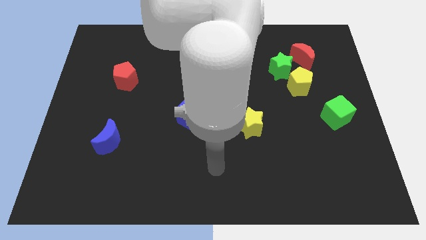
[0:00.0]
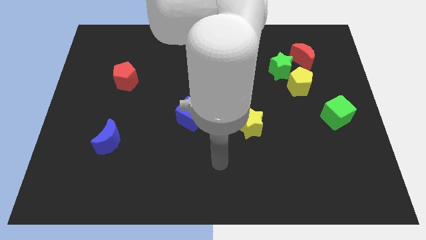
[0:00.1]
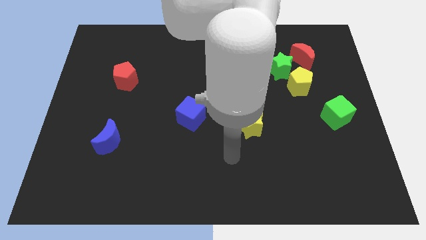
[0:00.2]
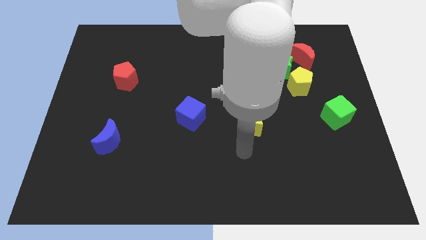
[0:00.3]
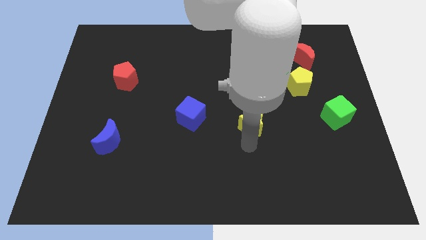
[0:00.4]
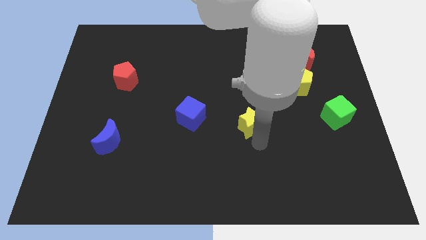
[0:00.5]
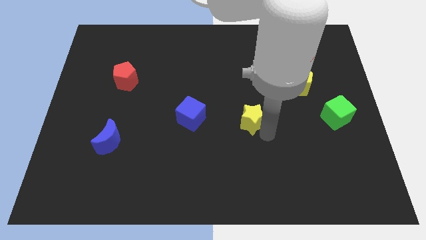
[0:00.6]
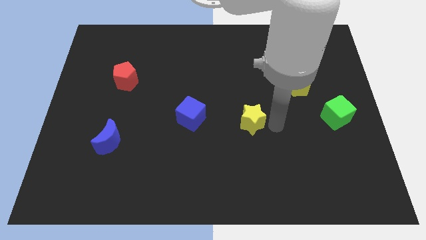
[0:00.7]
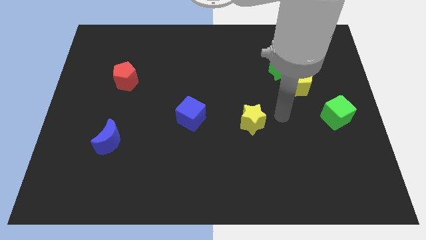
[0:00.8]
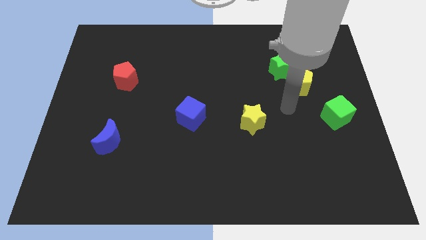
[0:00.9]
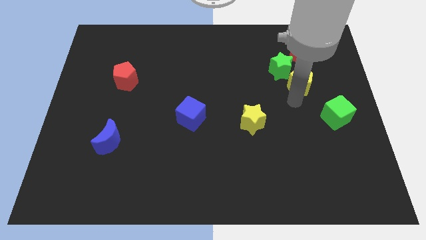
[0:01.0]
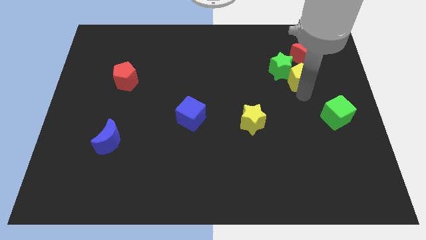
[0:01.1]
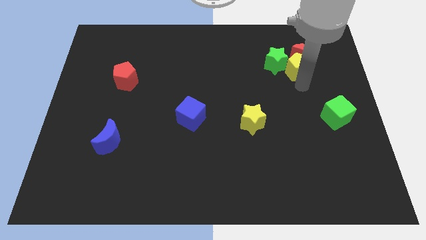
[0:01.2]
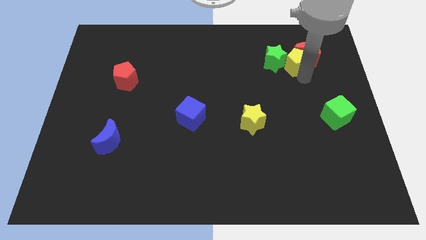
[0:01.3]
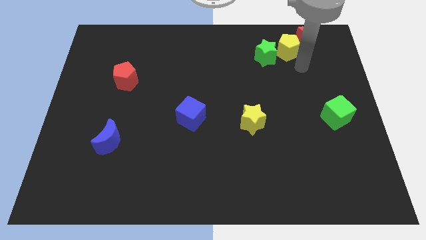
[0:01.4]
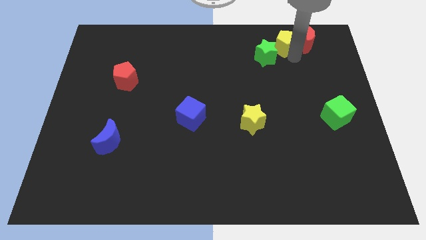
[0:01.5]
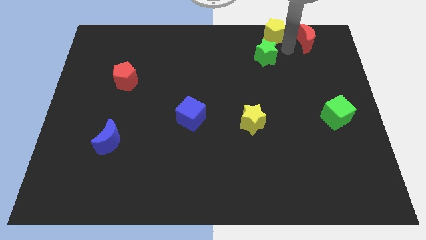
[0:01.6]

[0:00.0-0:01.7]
move the green star away from the yellow pentagon and red moon

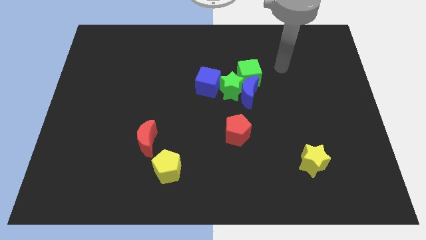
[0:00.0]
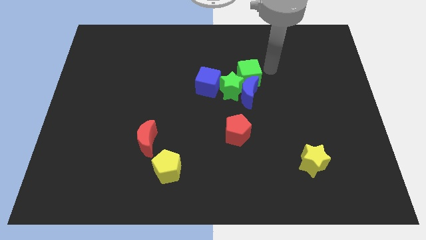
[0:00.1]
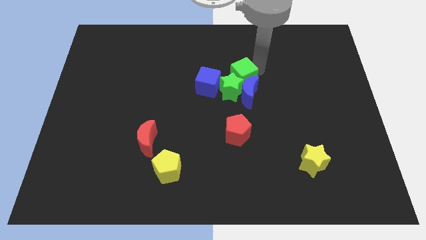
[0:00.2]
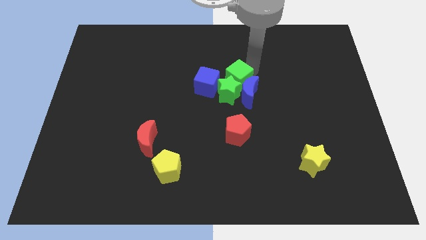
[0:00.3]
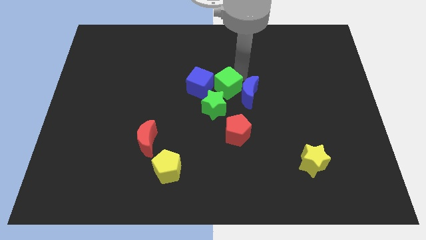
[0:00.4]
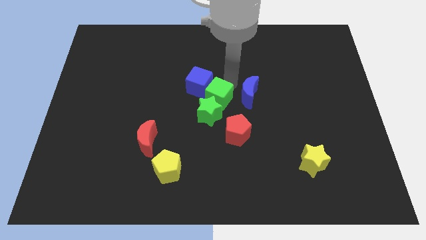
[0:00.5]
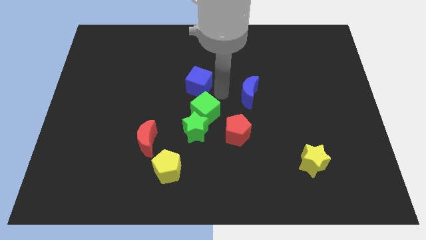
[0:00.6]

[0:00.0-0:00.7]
move the green star away from the group

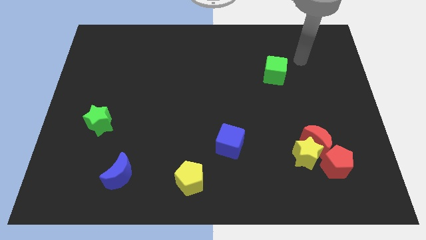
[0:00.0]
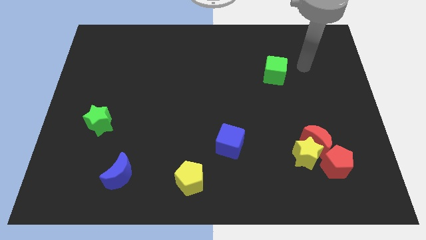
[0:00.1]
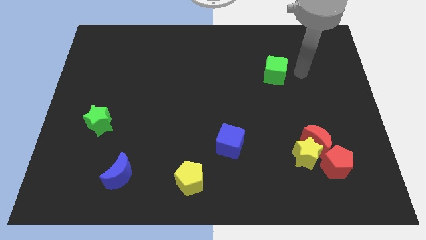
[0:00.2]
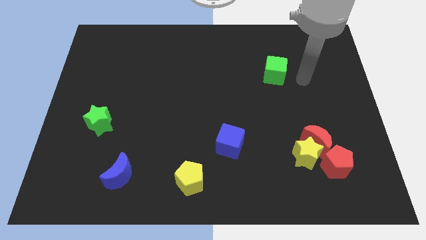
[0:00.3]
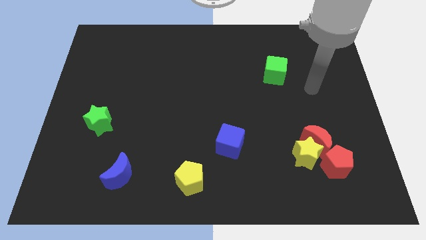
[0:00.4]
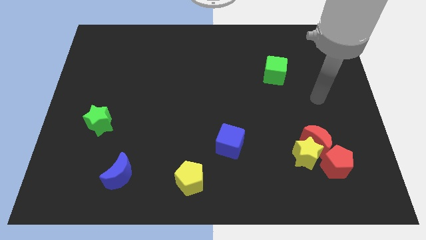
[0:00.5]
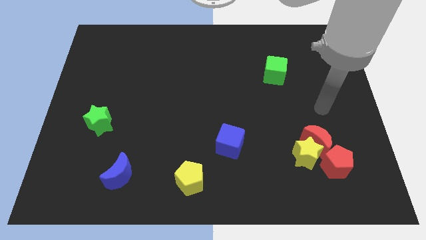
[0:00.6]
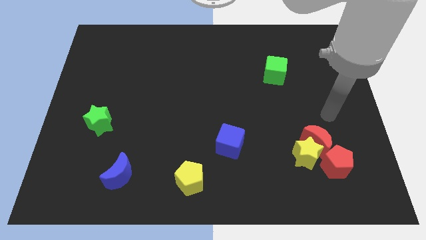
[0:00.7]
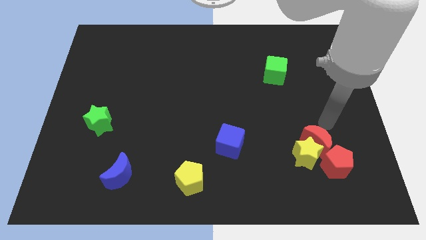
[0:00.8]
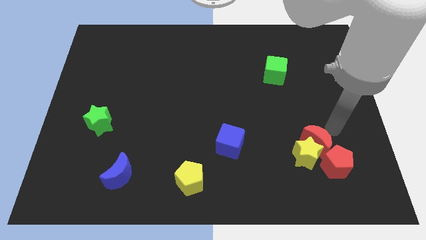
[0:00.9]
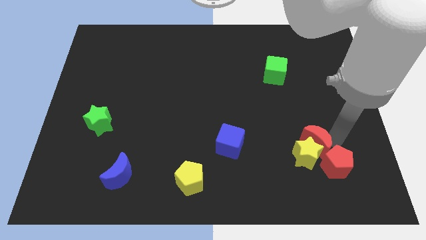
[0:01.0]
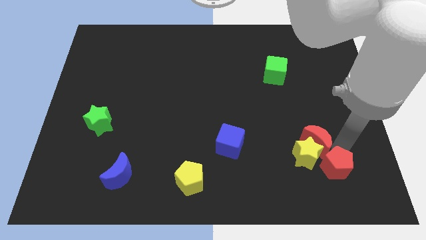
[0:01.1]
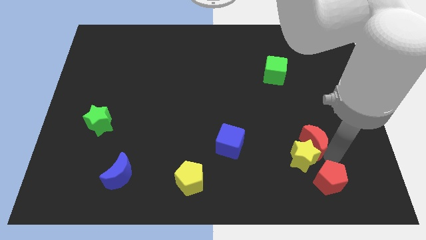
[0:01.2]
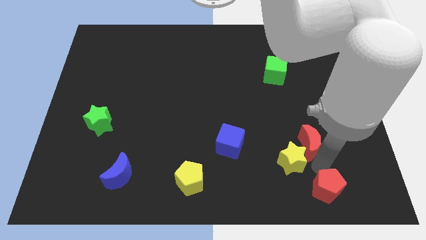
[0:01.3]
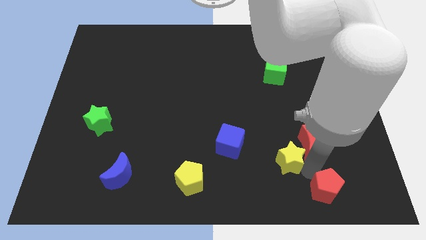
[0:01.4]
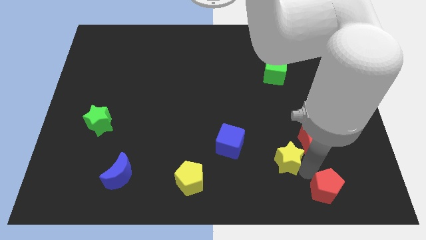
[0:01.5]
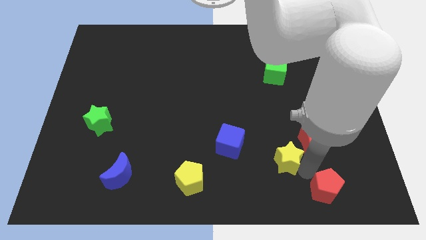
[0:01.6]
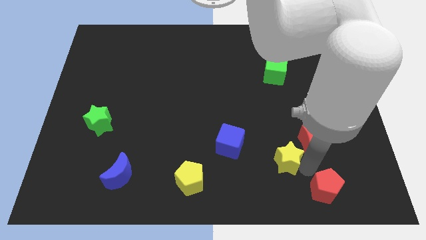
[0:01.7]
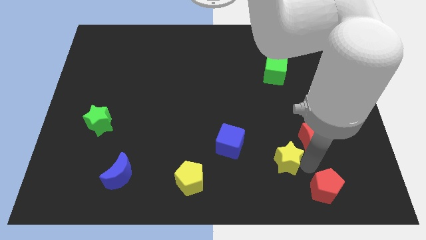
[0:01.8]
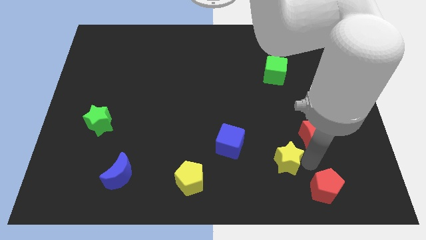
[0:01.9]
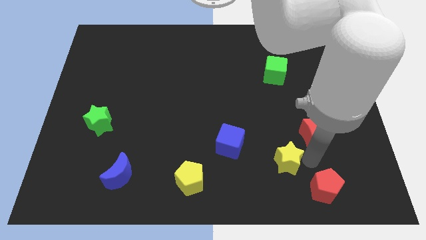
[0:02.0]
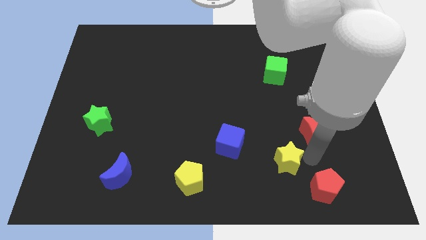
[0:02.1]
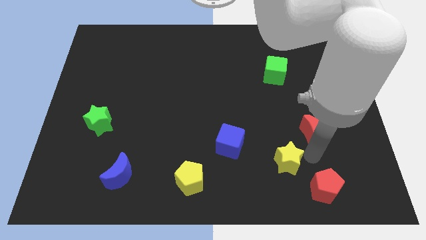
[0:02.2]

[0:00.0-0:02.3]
move the red moon away from the yellow star and red pentagon

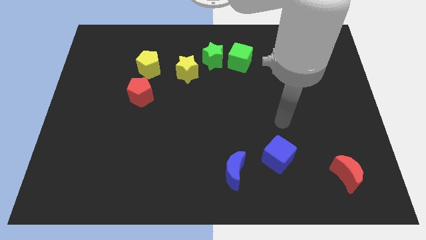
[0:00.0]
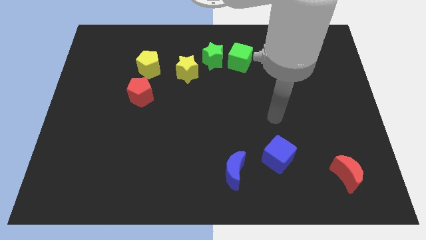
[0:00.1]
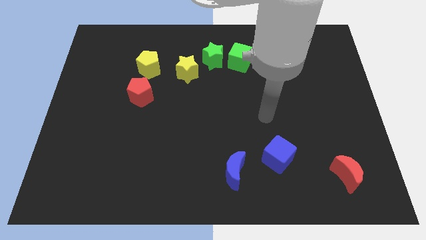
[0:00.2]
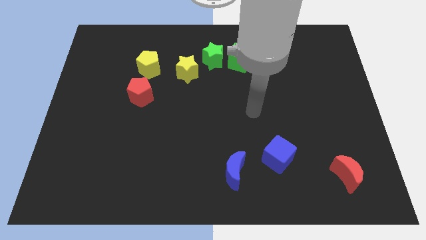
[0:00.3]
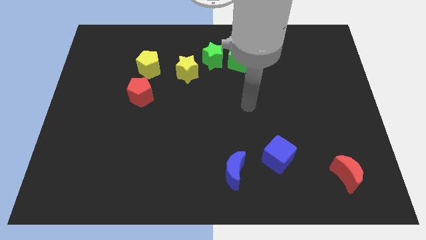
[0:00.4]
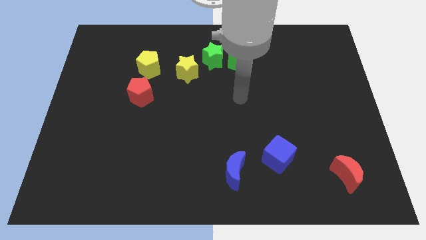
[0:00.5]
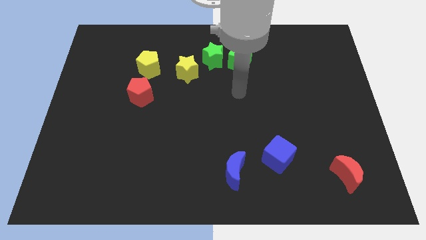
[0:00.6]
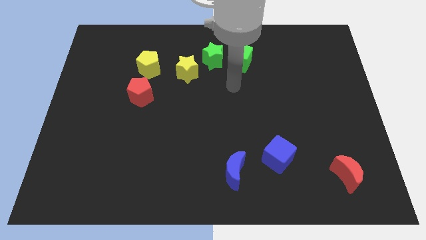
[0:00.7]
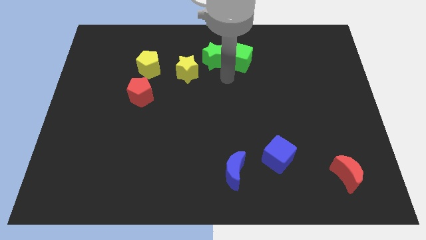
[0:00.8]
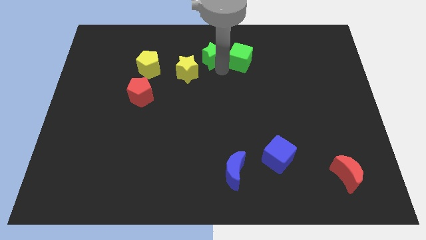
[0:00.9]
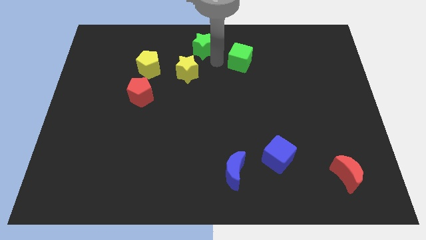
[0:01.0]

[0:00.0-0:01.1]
move the green cube away from the green star

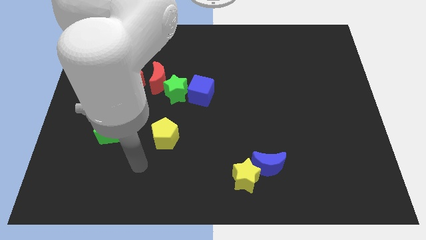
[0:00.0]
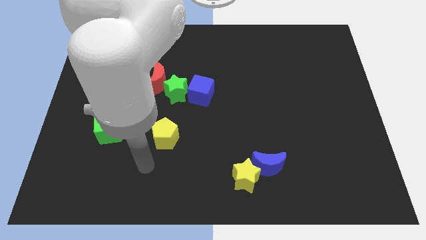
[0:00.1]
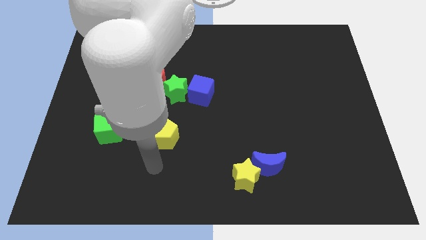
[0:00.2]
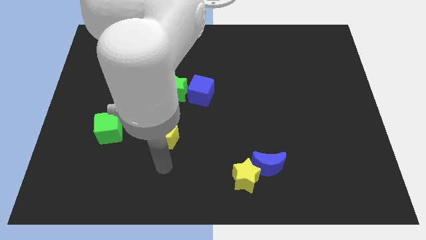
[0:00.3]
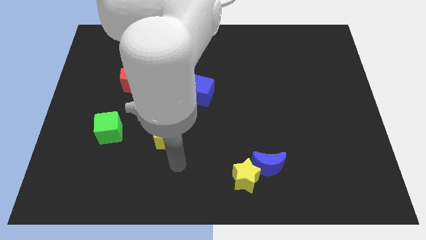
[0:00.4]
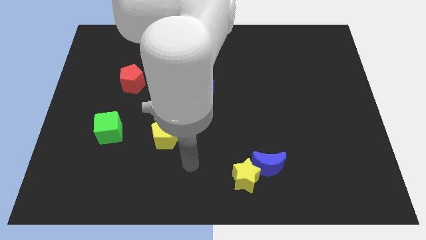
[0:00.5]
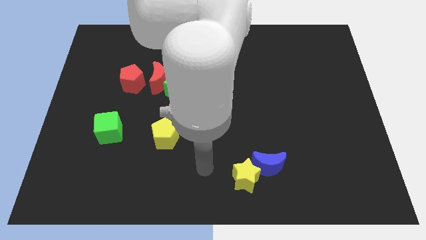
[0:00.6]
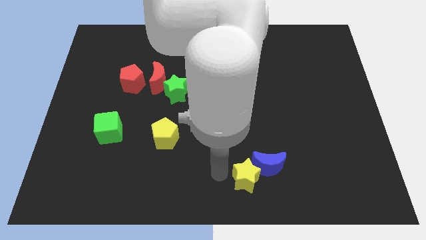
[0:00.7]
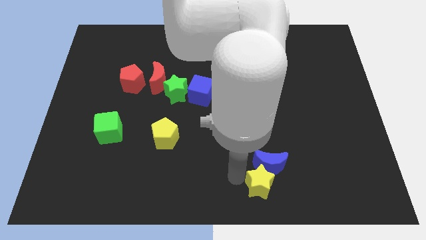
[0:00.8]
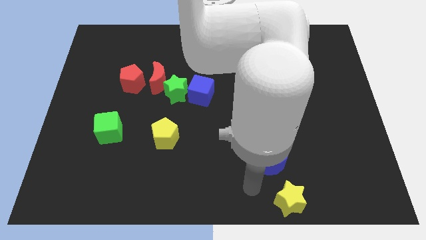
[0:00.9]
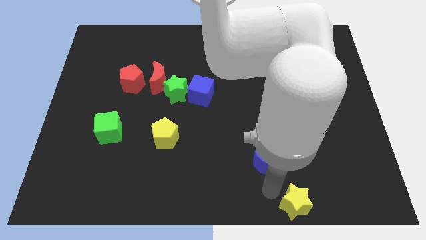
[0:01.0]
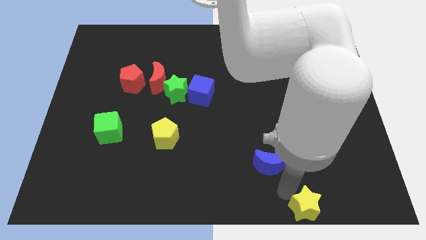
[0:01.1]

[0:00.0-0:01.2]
pull the blue moon apart from the yellow star

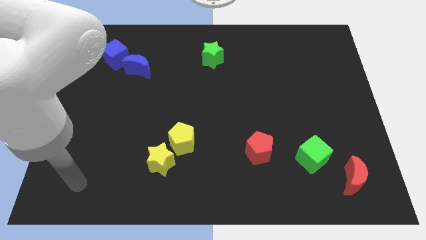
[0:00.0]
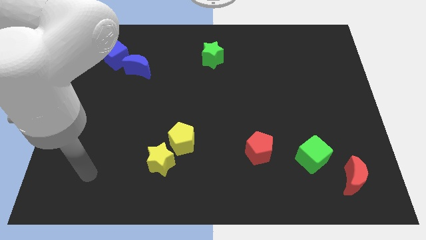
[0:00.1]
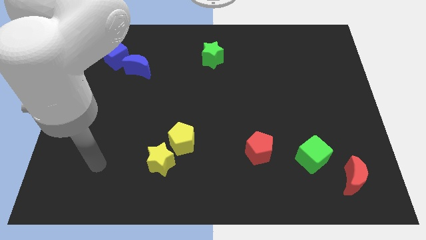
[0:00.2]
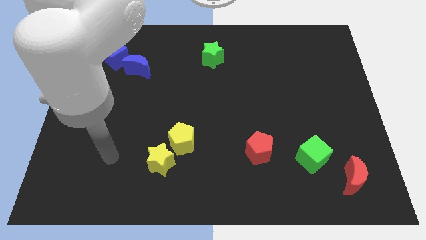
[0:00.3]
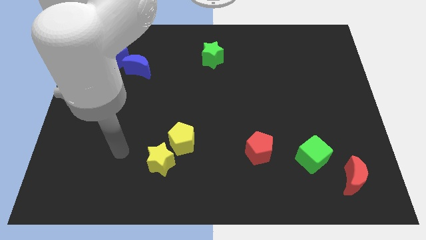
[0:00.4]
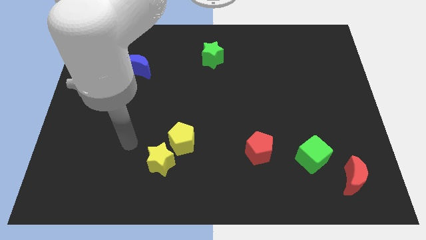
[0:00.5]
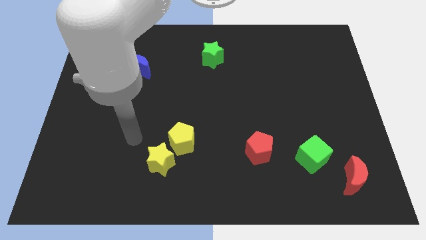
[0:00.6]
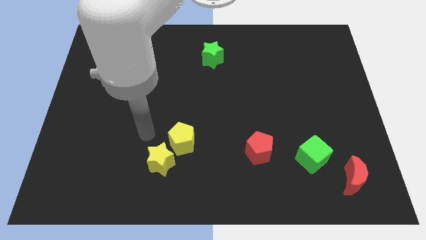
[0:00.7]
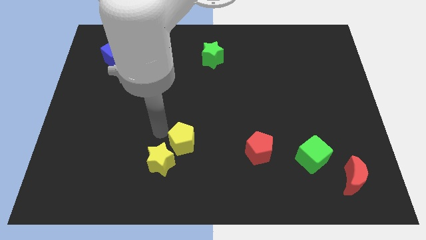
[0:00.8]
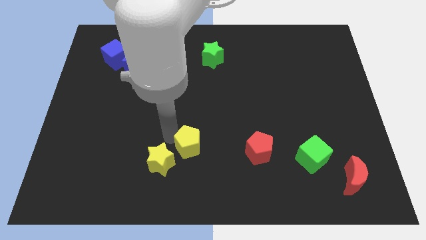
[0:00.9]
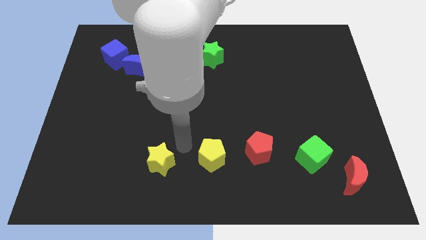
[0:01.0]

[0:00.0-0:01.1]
separate the yellow star from the yellow pentagon

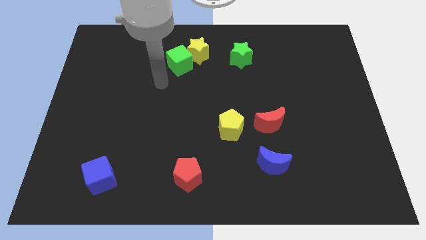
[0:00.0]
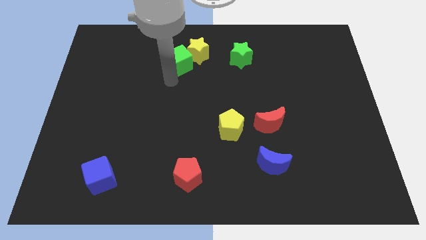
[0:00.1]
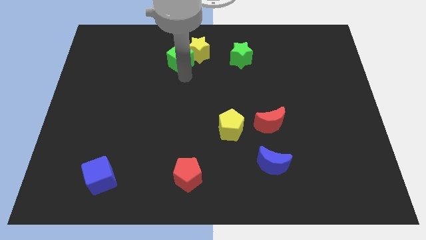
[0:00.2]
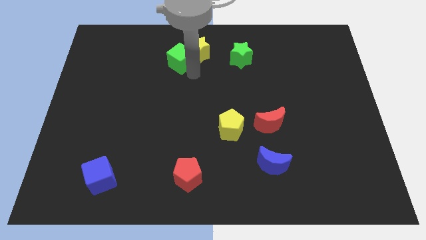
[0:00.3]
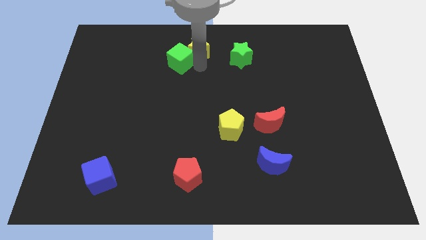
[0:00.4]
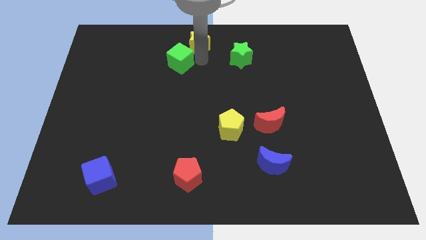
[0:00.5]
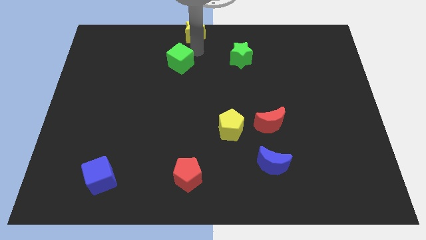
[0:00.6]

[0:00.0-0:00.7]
separate the green cube from the yellow star

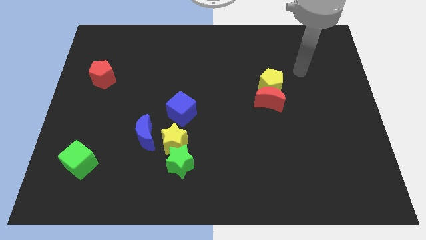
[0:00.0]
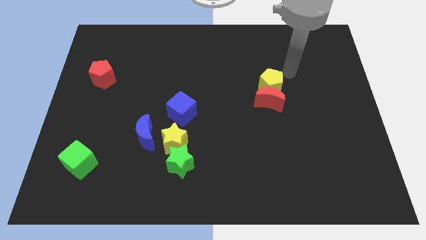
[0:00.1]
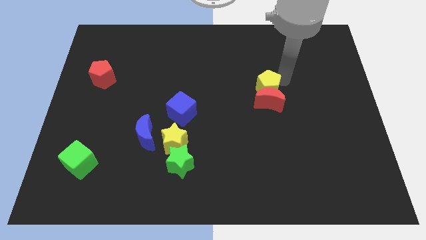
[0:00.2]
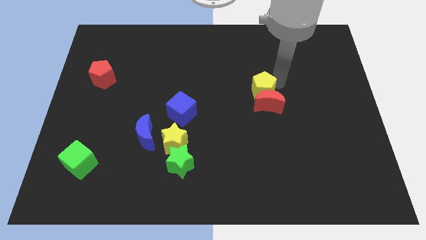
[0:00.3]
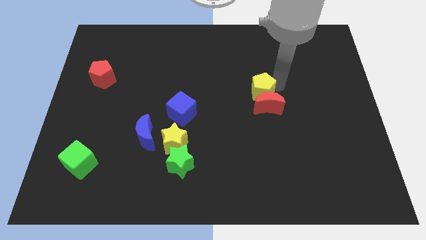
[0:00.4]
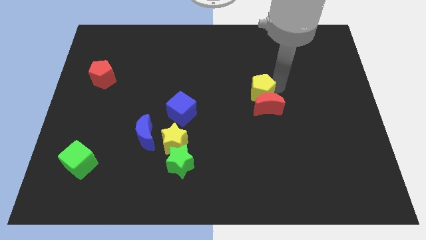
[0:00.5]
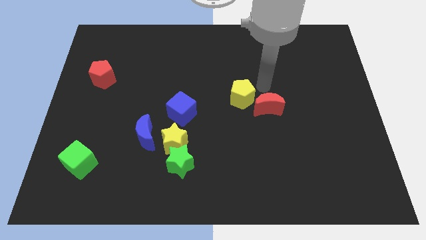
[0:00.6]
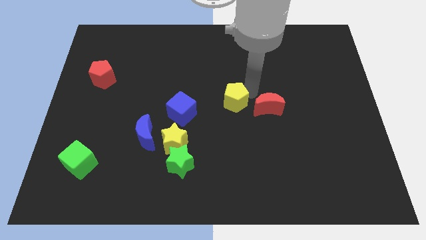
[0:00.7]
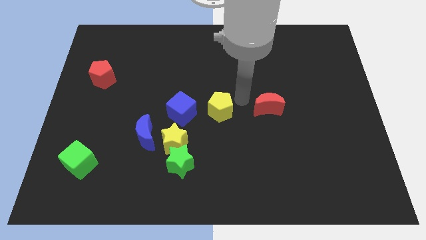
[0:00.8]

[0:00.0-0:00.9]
pull the red moon apart from the yellow pentagon
